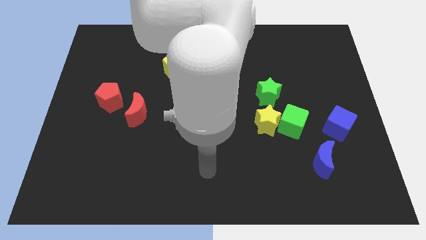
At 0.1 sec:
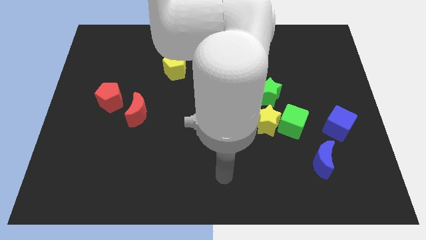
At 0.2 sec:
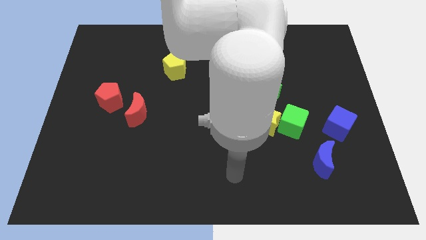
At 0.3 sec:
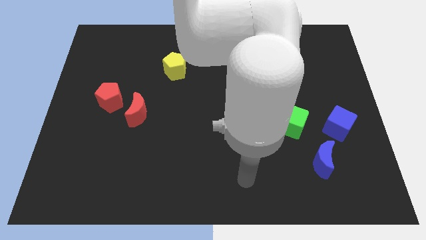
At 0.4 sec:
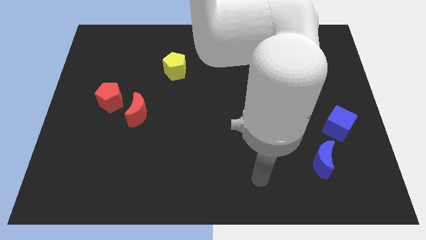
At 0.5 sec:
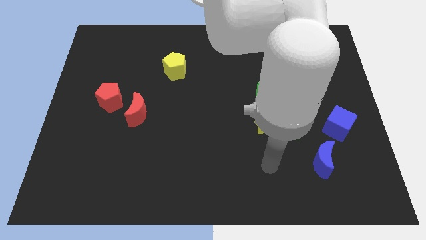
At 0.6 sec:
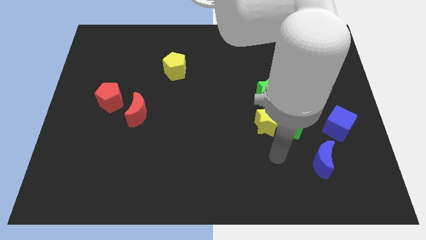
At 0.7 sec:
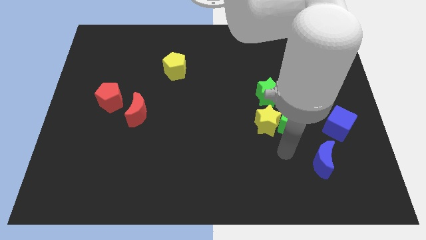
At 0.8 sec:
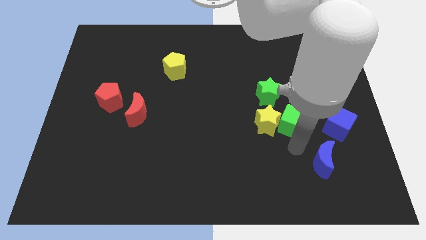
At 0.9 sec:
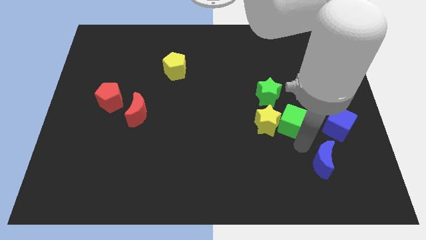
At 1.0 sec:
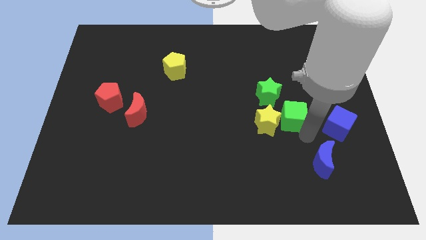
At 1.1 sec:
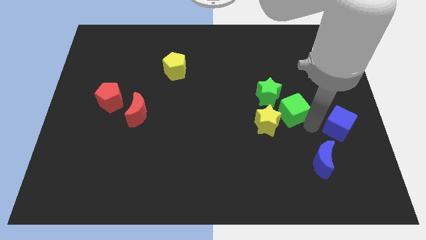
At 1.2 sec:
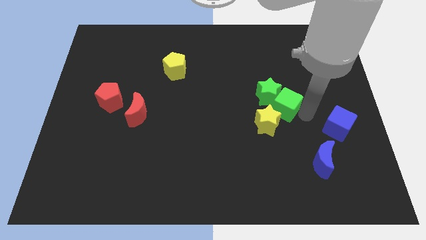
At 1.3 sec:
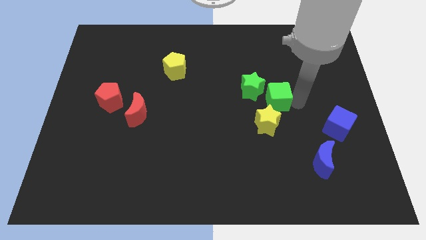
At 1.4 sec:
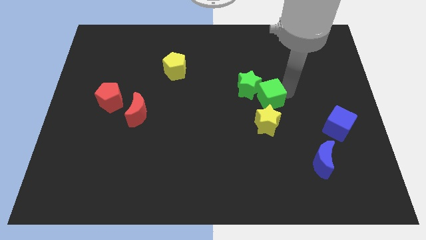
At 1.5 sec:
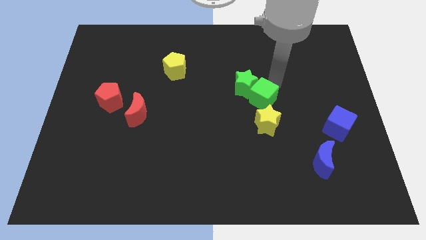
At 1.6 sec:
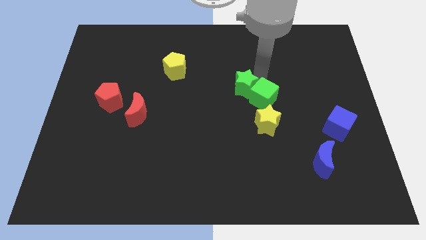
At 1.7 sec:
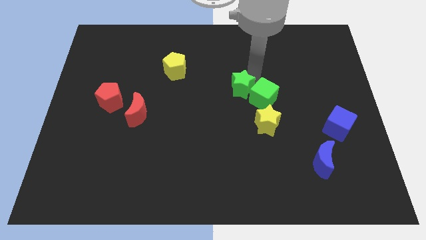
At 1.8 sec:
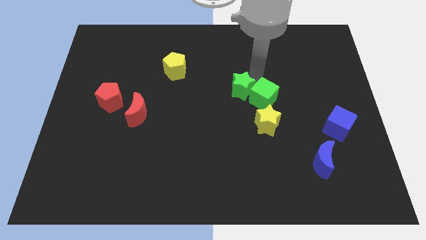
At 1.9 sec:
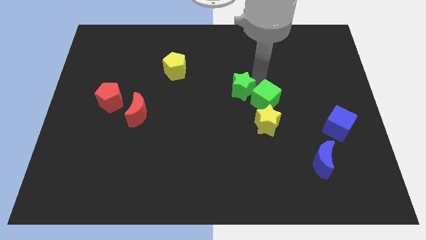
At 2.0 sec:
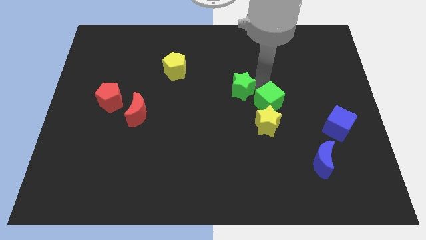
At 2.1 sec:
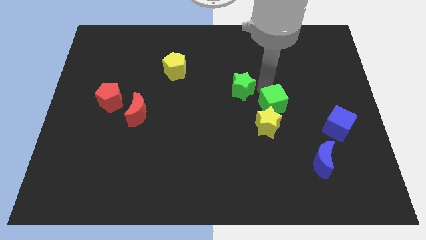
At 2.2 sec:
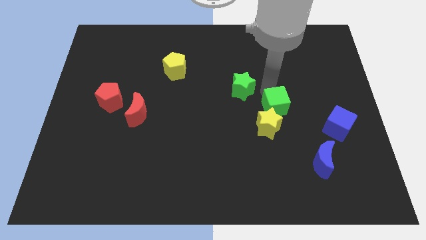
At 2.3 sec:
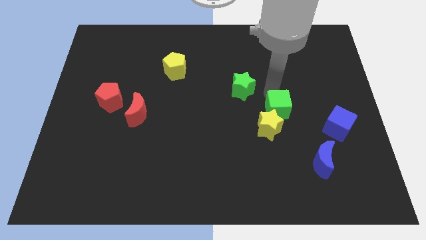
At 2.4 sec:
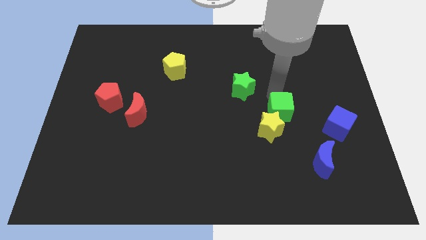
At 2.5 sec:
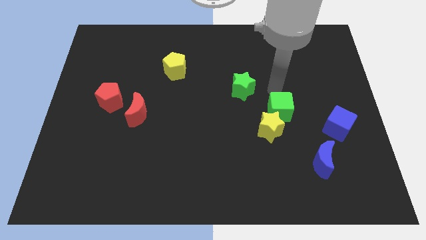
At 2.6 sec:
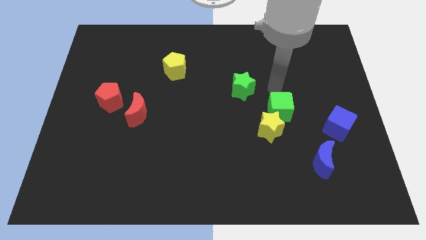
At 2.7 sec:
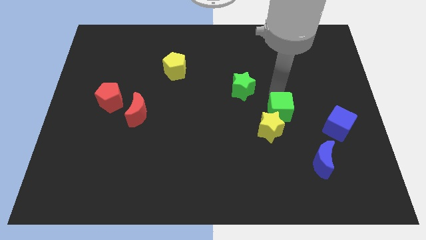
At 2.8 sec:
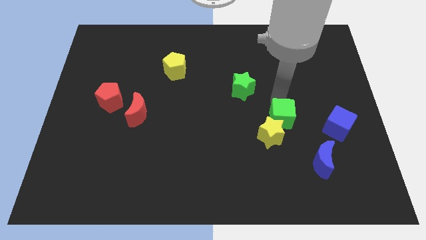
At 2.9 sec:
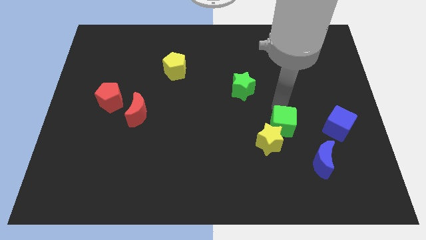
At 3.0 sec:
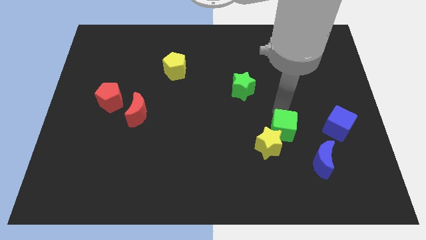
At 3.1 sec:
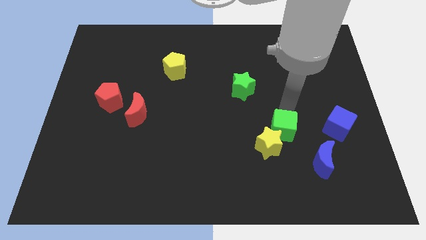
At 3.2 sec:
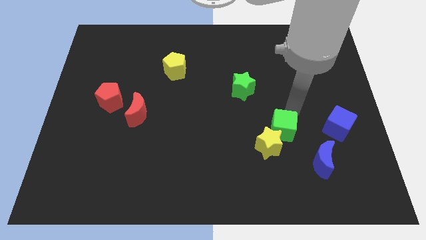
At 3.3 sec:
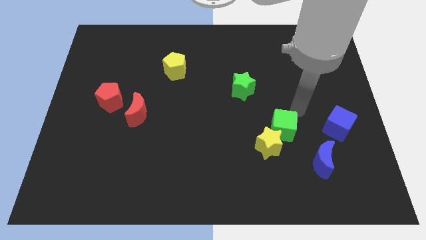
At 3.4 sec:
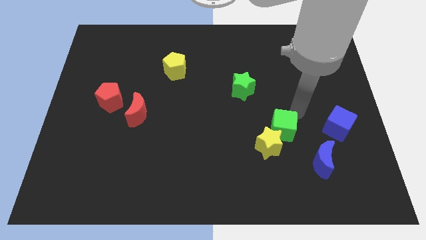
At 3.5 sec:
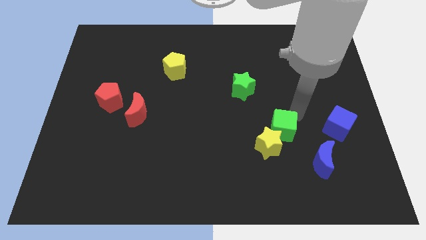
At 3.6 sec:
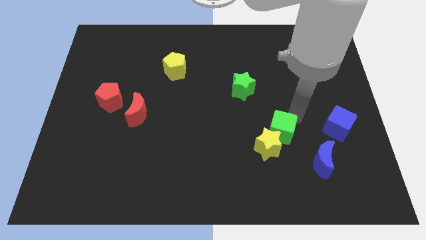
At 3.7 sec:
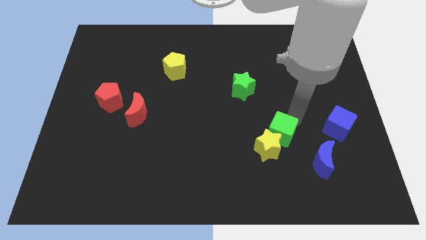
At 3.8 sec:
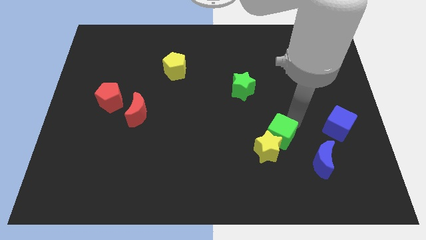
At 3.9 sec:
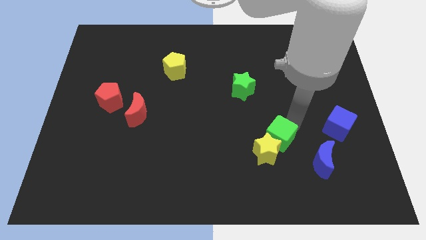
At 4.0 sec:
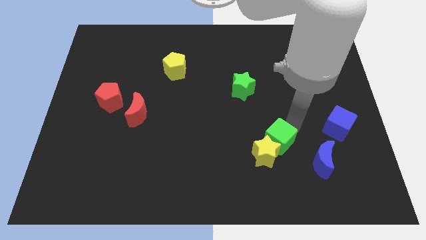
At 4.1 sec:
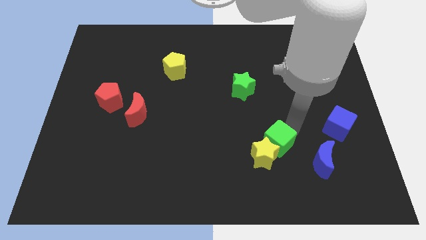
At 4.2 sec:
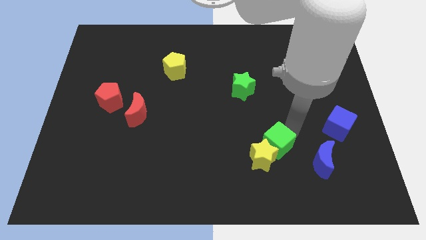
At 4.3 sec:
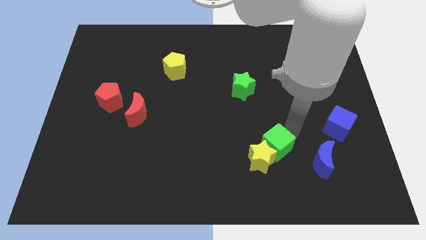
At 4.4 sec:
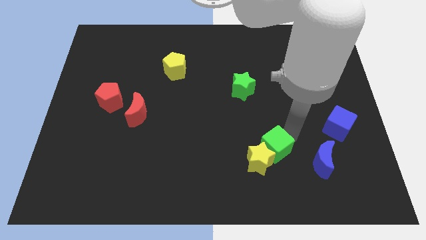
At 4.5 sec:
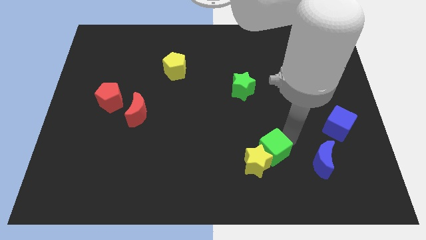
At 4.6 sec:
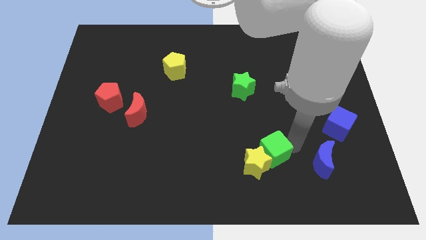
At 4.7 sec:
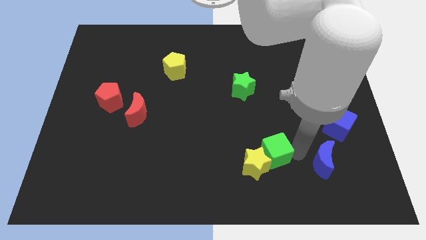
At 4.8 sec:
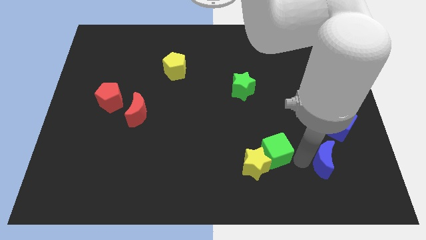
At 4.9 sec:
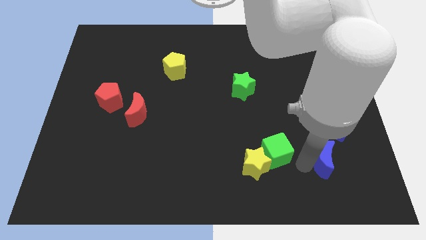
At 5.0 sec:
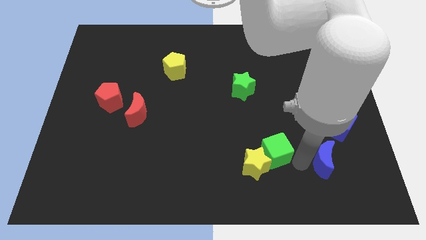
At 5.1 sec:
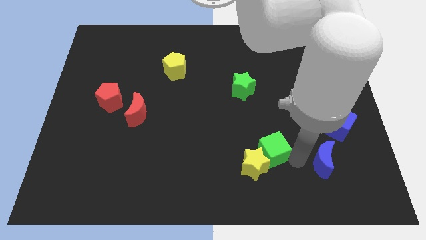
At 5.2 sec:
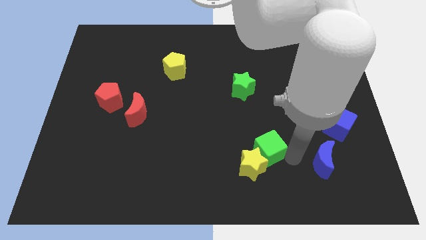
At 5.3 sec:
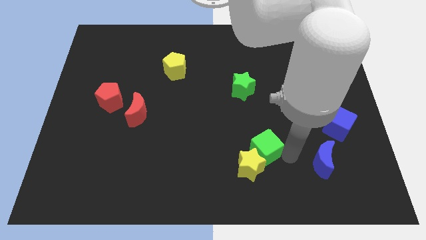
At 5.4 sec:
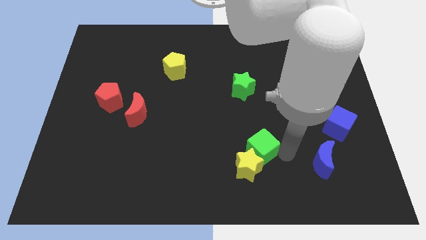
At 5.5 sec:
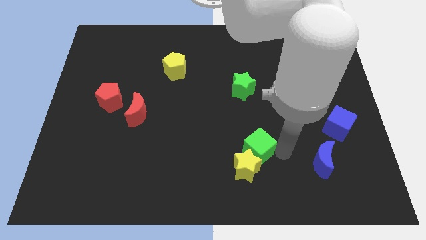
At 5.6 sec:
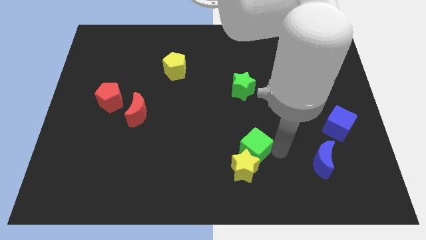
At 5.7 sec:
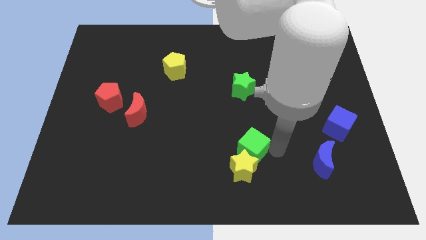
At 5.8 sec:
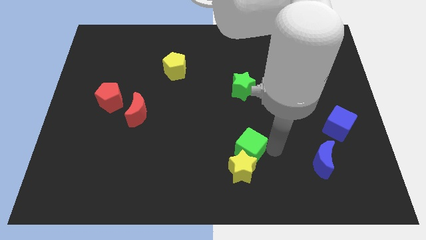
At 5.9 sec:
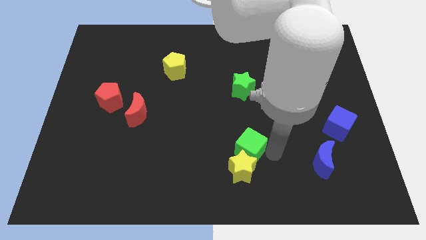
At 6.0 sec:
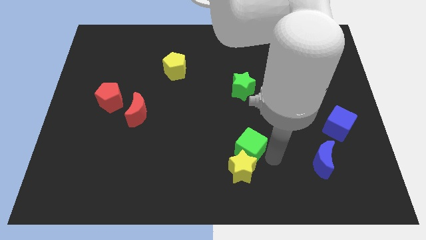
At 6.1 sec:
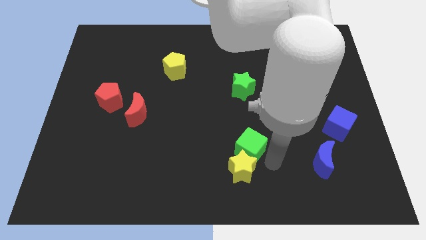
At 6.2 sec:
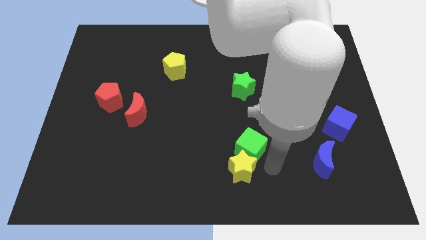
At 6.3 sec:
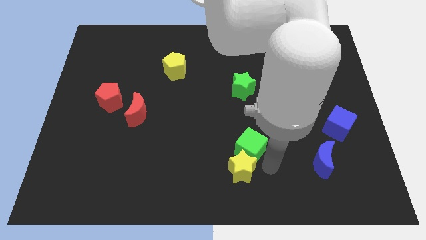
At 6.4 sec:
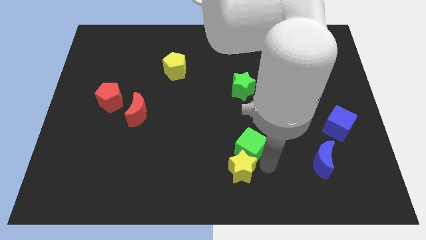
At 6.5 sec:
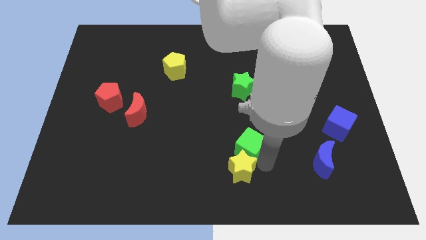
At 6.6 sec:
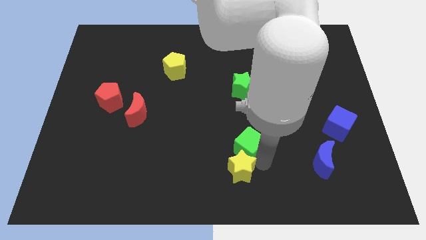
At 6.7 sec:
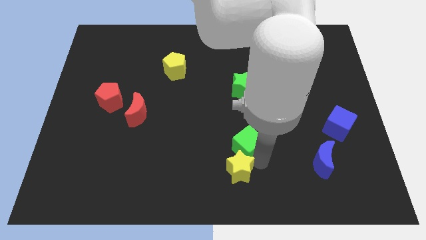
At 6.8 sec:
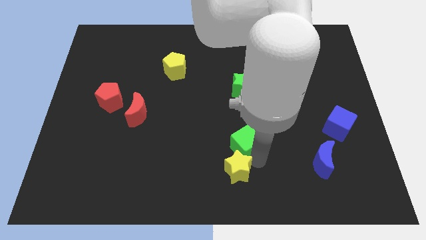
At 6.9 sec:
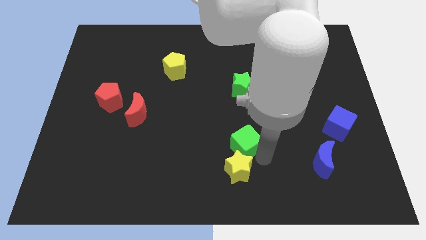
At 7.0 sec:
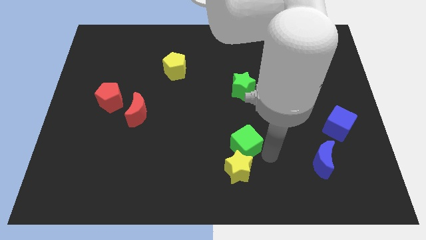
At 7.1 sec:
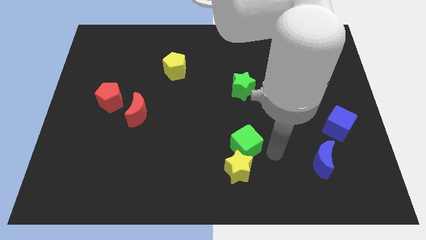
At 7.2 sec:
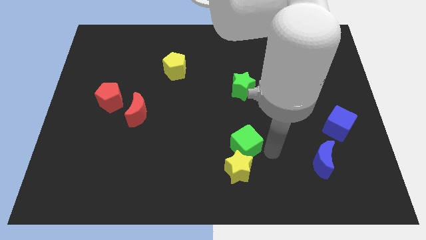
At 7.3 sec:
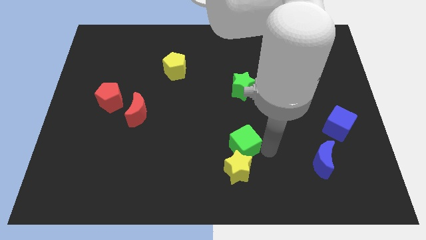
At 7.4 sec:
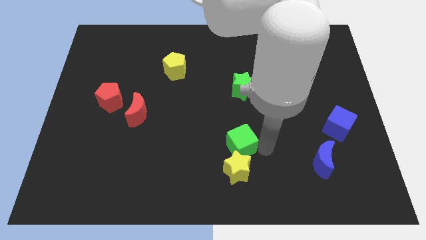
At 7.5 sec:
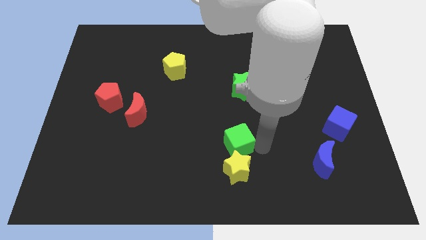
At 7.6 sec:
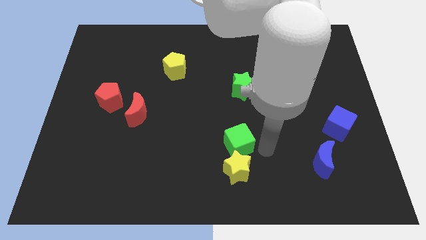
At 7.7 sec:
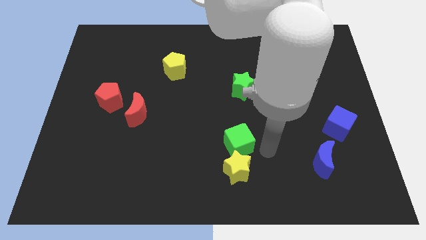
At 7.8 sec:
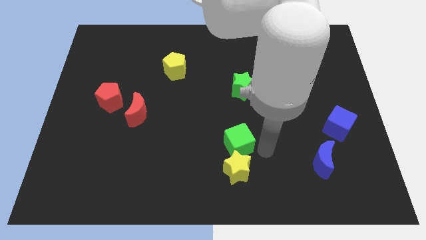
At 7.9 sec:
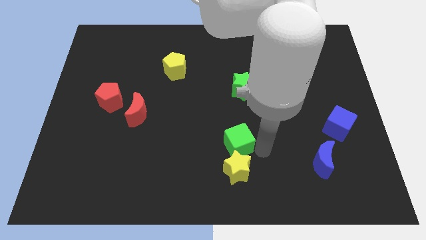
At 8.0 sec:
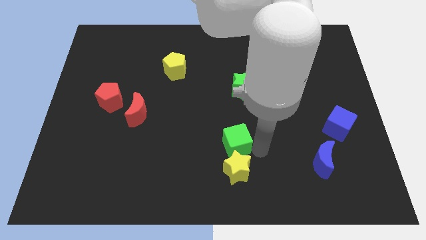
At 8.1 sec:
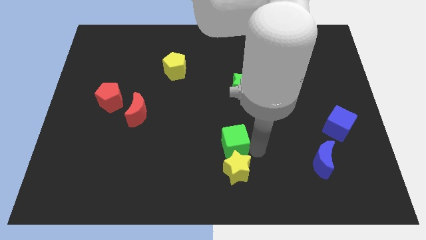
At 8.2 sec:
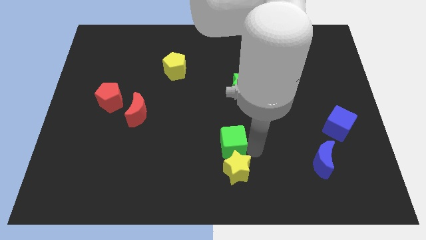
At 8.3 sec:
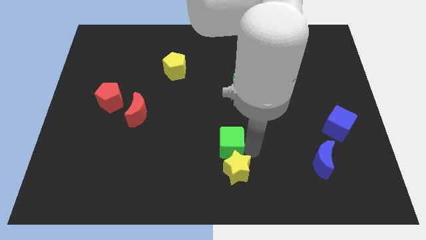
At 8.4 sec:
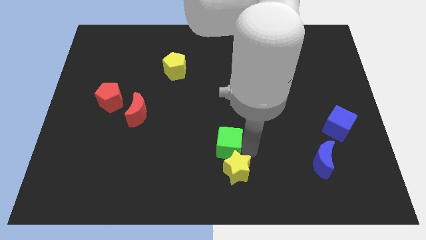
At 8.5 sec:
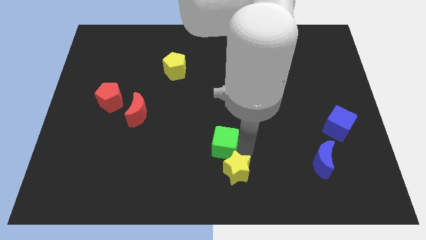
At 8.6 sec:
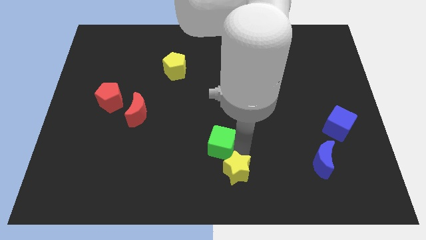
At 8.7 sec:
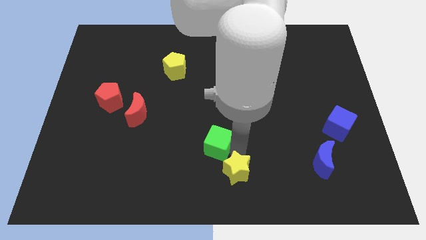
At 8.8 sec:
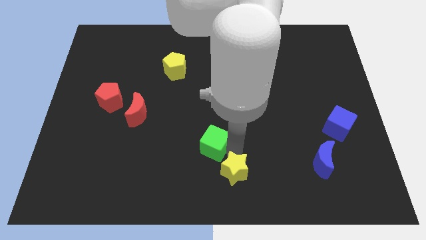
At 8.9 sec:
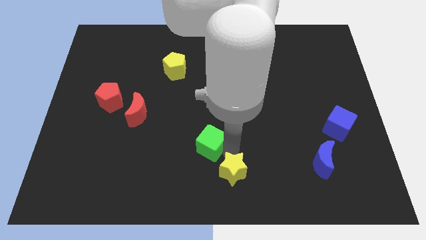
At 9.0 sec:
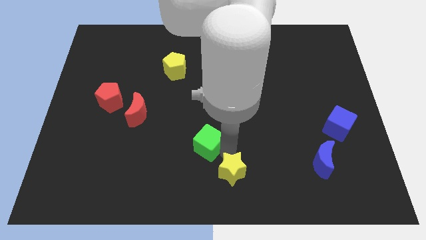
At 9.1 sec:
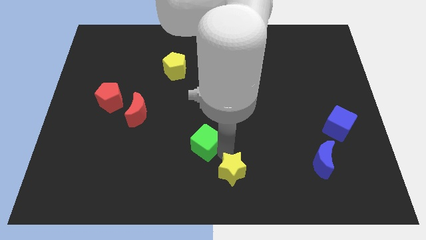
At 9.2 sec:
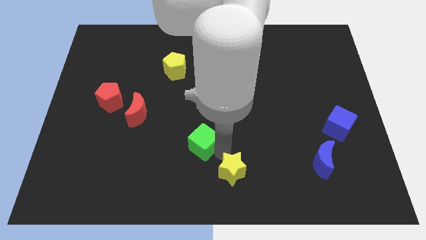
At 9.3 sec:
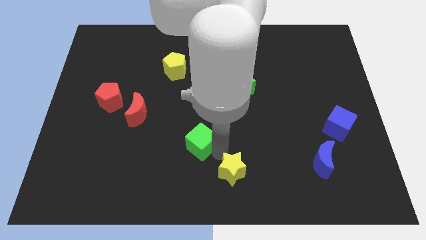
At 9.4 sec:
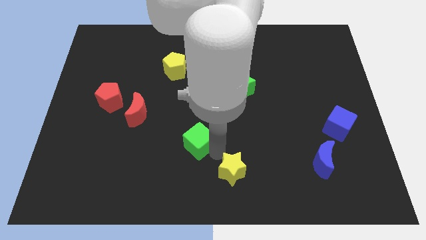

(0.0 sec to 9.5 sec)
push the green cube left
